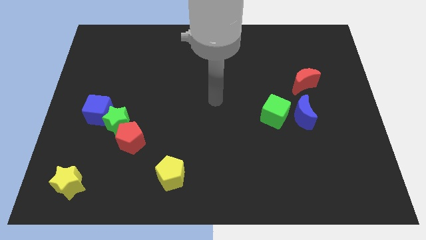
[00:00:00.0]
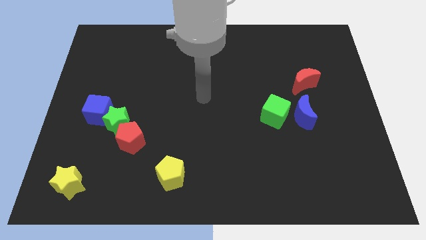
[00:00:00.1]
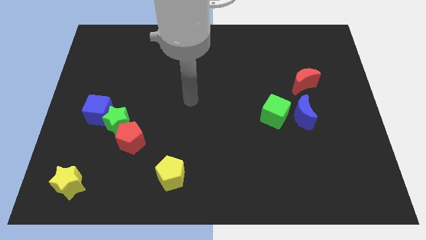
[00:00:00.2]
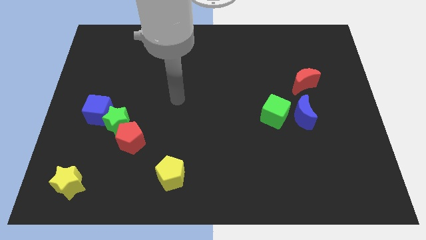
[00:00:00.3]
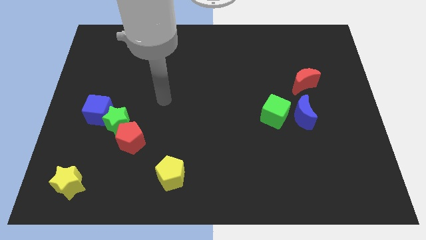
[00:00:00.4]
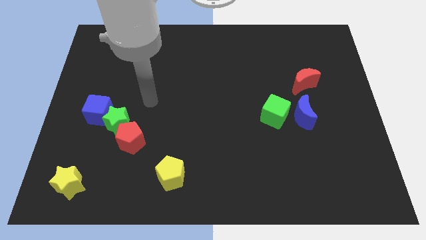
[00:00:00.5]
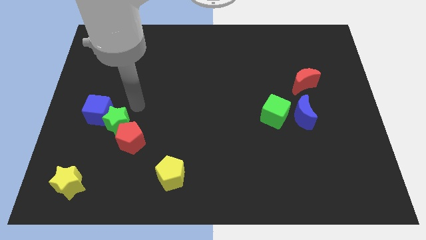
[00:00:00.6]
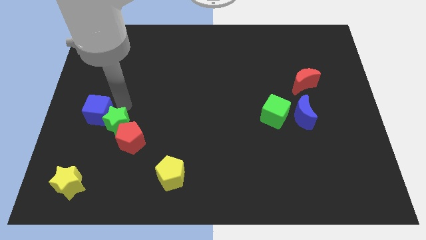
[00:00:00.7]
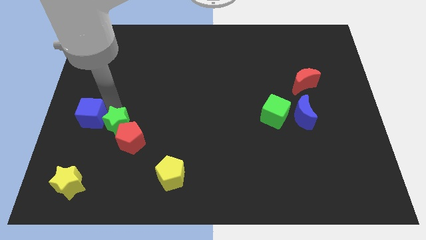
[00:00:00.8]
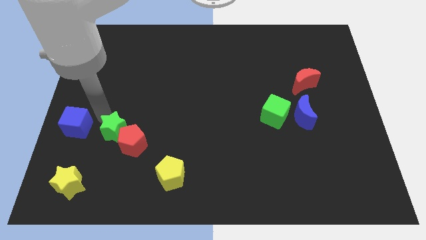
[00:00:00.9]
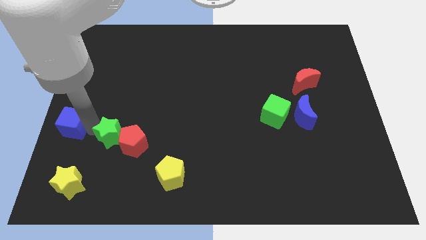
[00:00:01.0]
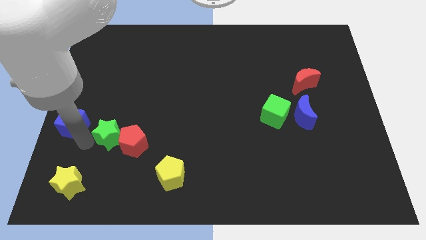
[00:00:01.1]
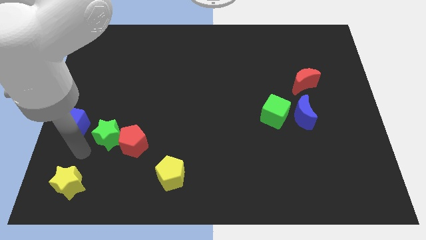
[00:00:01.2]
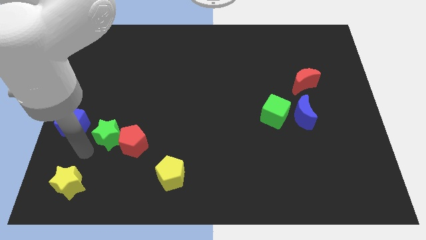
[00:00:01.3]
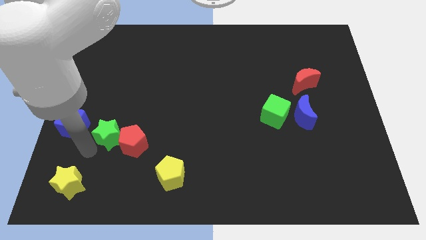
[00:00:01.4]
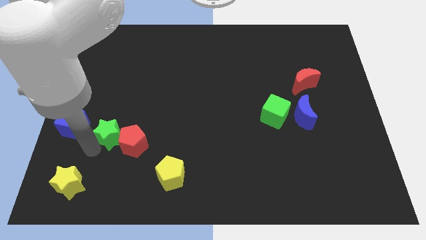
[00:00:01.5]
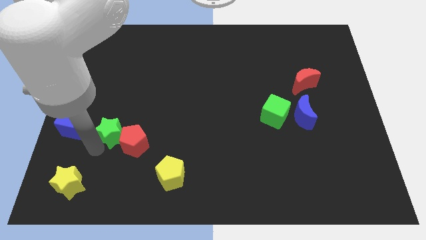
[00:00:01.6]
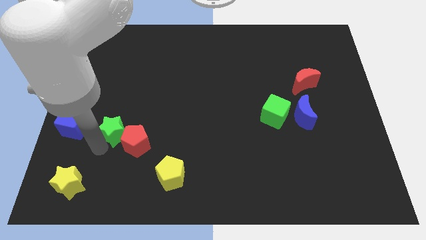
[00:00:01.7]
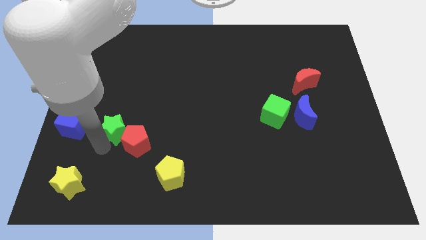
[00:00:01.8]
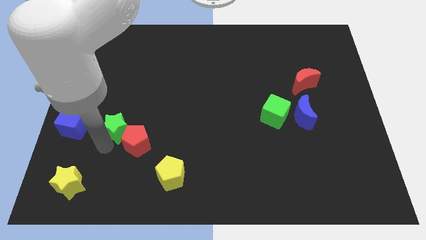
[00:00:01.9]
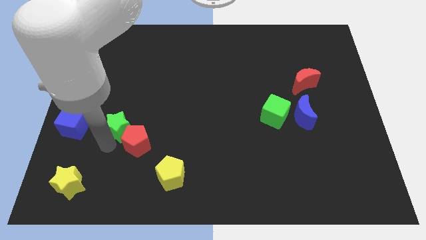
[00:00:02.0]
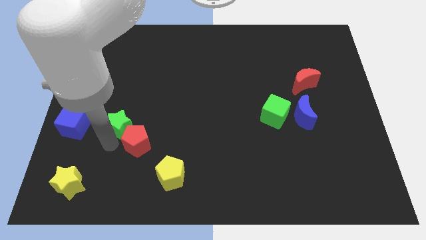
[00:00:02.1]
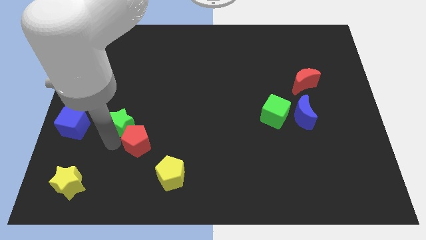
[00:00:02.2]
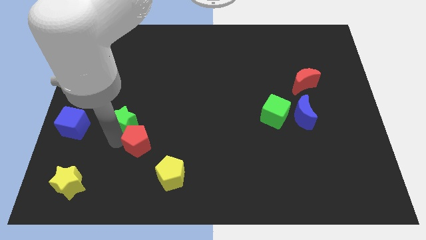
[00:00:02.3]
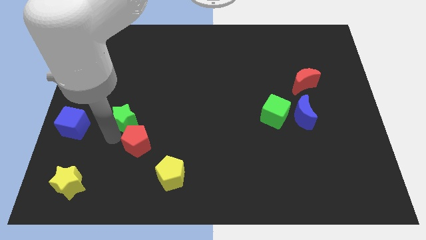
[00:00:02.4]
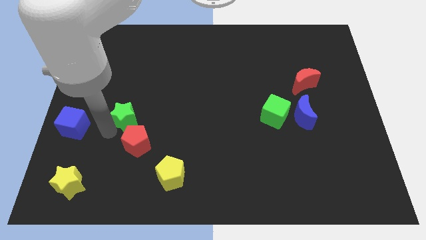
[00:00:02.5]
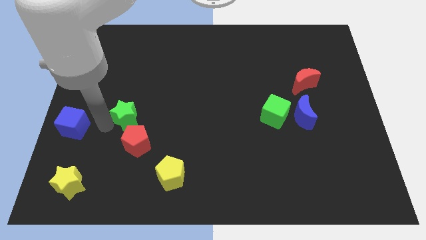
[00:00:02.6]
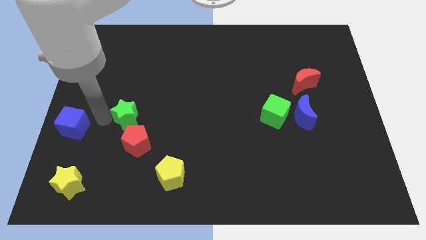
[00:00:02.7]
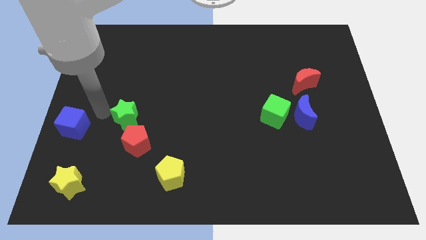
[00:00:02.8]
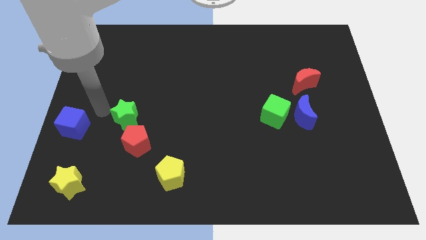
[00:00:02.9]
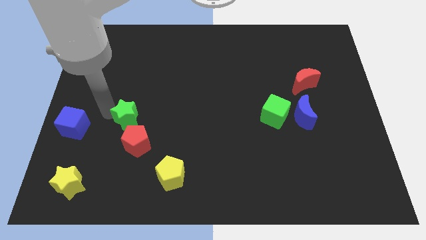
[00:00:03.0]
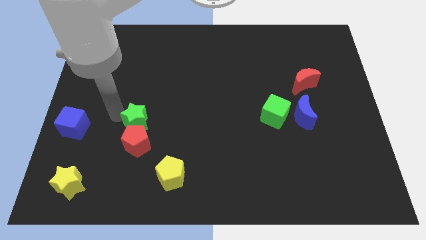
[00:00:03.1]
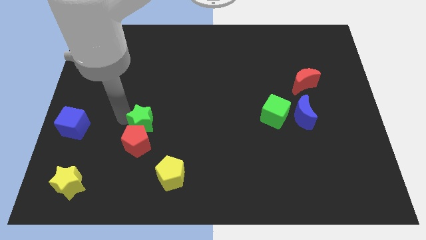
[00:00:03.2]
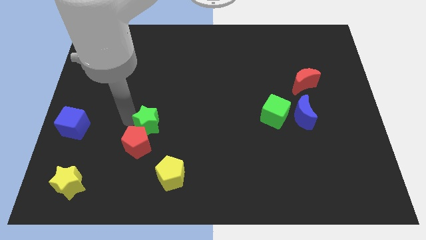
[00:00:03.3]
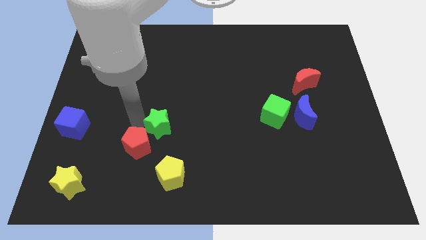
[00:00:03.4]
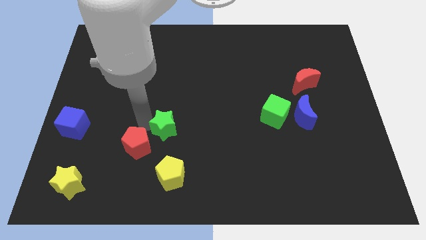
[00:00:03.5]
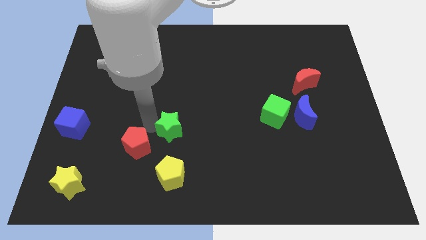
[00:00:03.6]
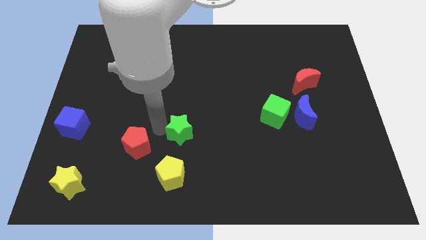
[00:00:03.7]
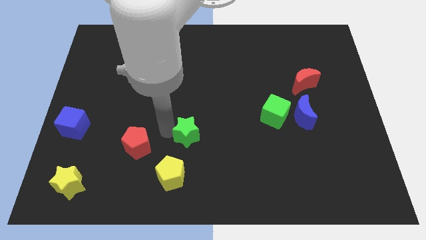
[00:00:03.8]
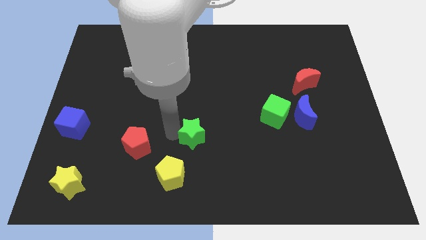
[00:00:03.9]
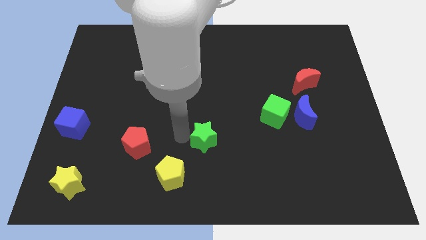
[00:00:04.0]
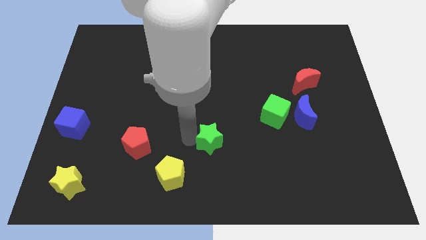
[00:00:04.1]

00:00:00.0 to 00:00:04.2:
move the green star right

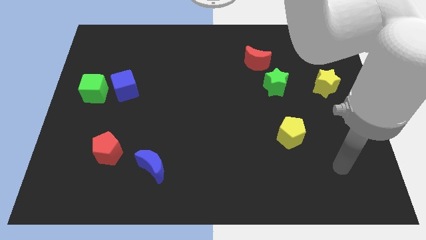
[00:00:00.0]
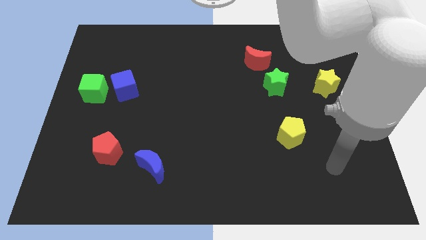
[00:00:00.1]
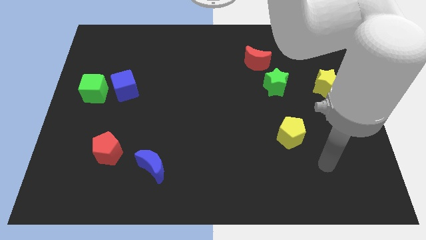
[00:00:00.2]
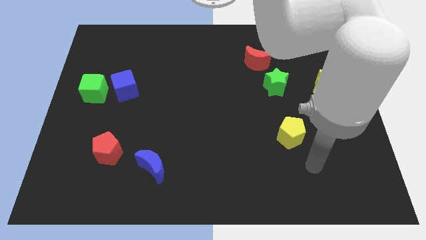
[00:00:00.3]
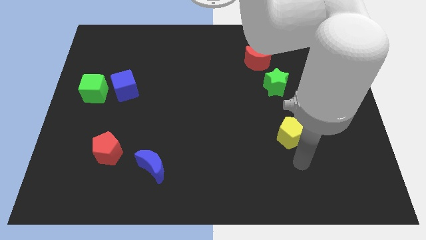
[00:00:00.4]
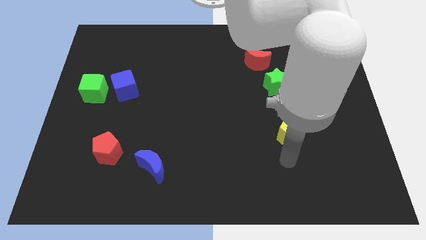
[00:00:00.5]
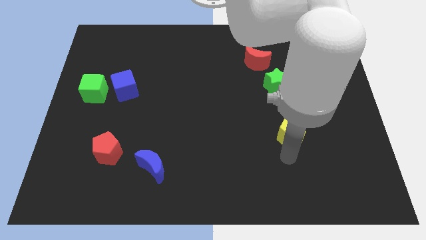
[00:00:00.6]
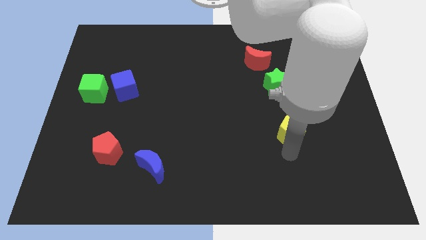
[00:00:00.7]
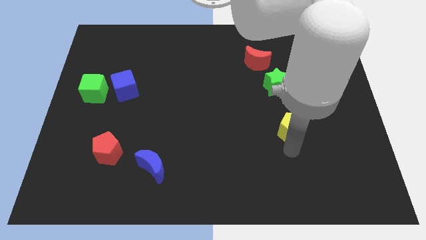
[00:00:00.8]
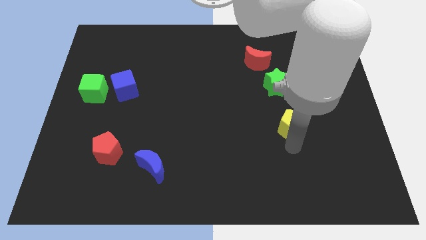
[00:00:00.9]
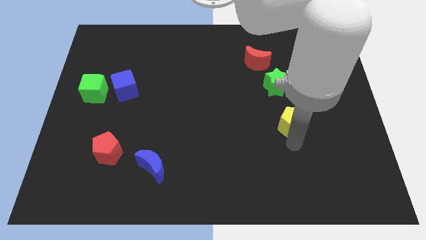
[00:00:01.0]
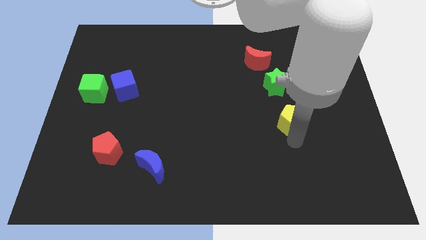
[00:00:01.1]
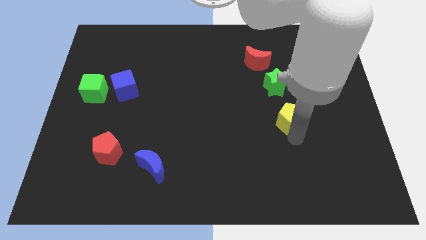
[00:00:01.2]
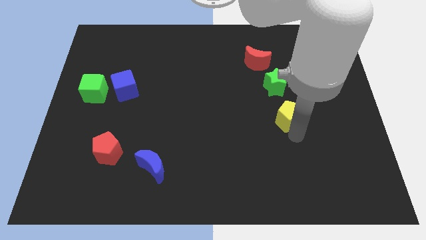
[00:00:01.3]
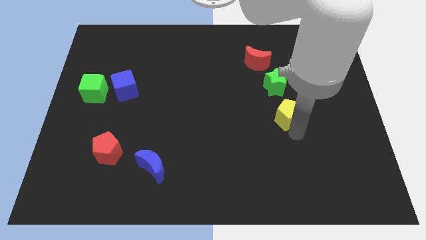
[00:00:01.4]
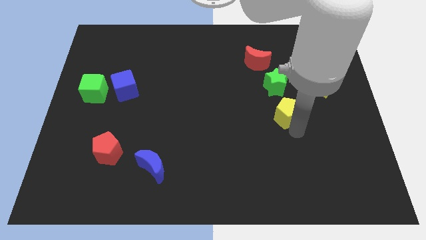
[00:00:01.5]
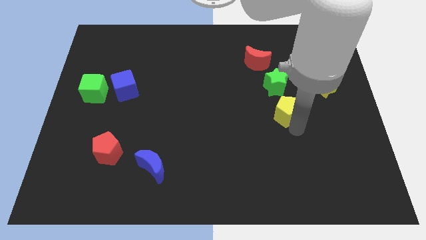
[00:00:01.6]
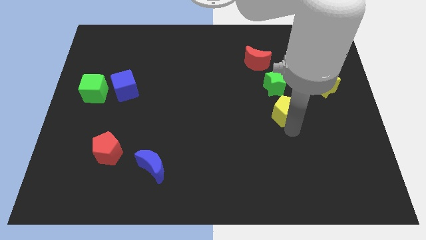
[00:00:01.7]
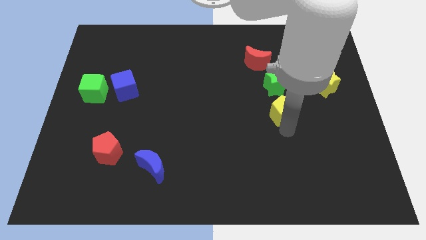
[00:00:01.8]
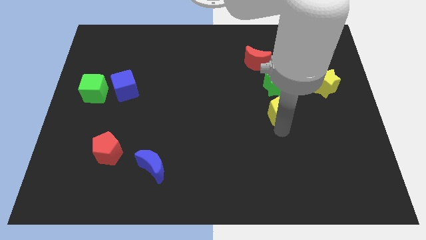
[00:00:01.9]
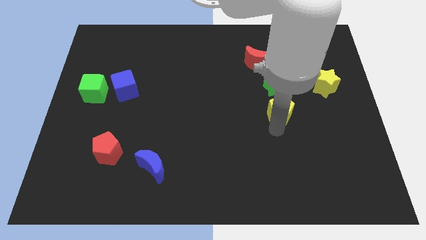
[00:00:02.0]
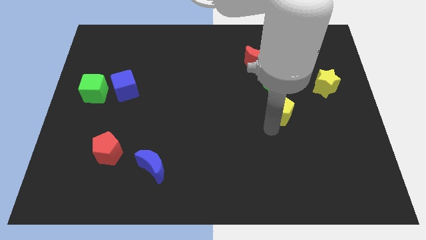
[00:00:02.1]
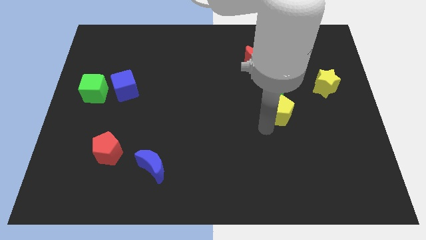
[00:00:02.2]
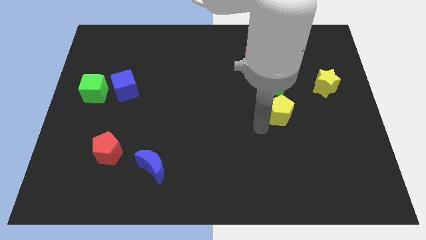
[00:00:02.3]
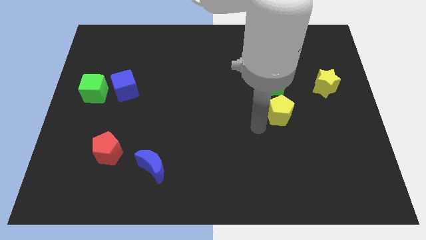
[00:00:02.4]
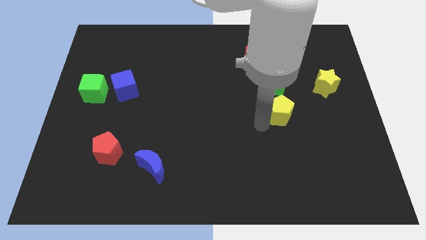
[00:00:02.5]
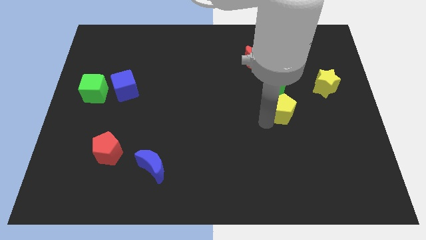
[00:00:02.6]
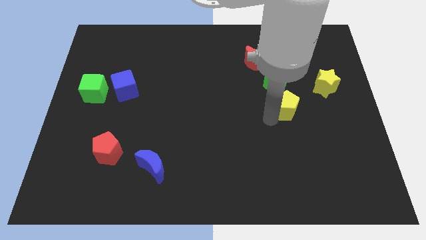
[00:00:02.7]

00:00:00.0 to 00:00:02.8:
push the yellow pentagon up somewhat

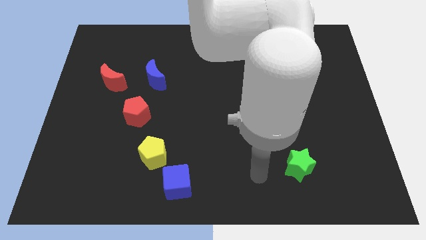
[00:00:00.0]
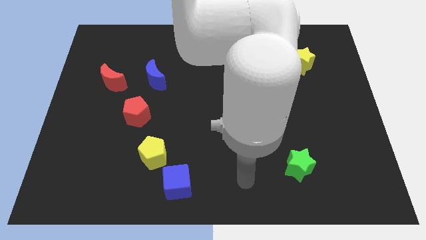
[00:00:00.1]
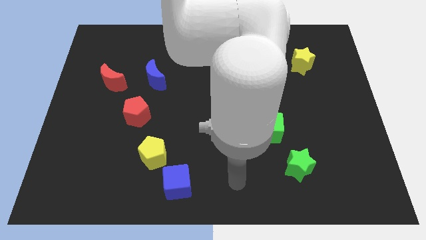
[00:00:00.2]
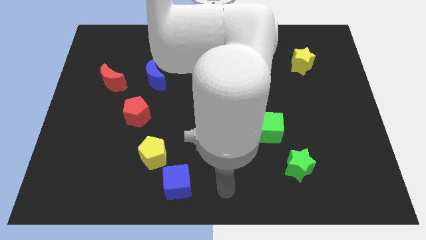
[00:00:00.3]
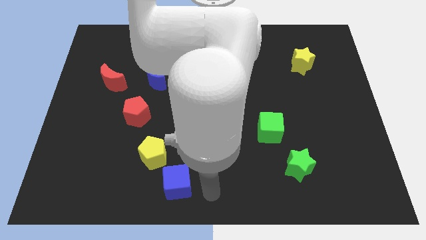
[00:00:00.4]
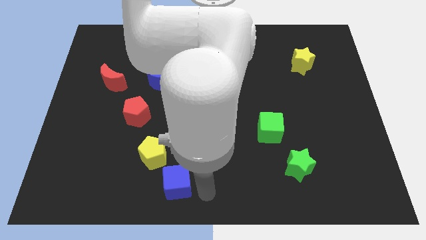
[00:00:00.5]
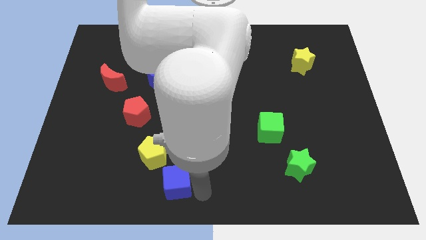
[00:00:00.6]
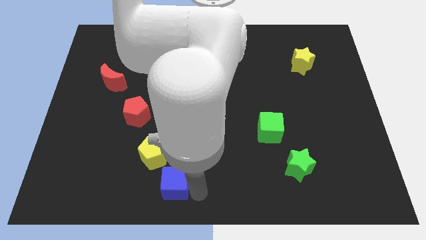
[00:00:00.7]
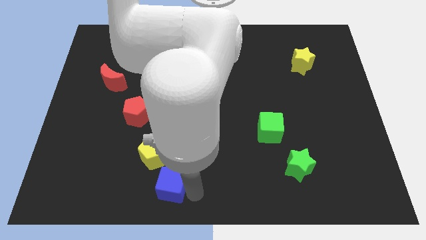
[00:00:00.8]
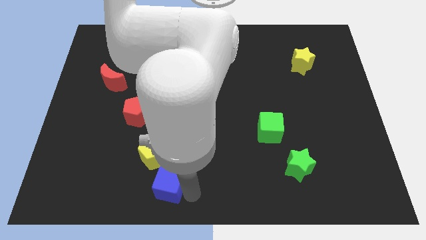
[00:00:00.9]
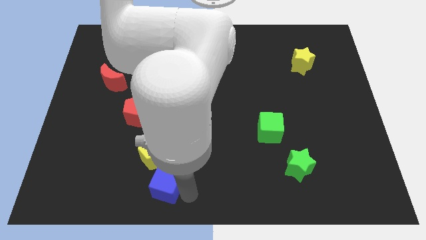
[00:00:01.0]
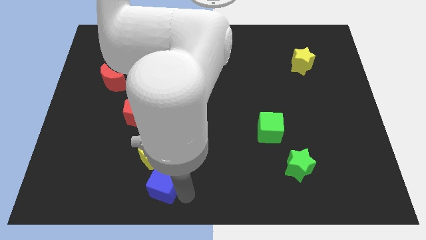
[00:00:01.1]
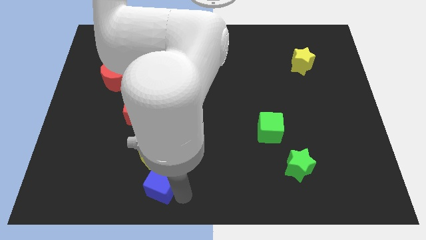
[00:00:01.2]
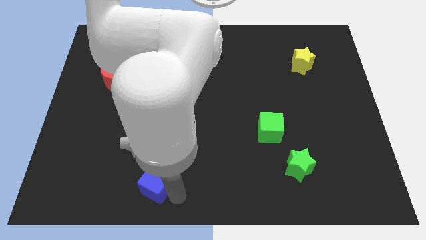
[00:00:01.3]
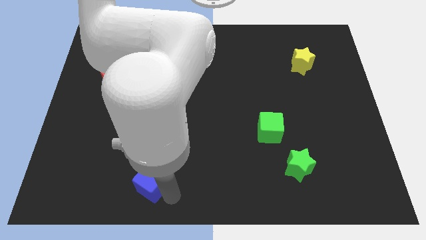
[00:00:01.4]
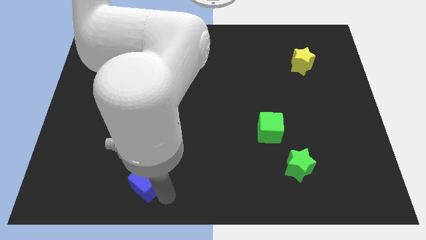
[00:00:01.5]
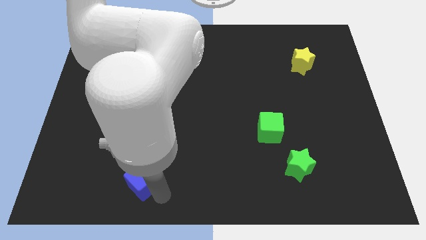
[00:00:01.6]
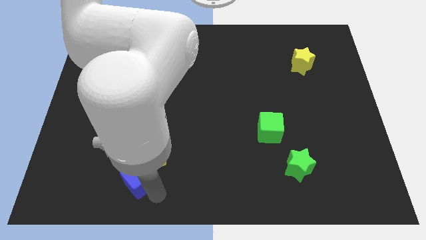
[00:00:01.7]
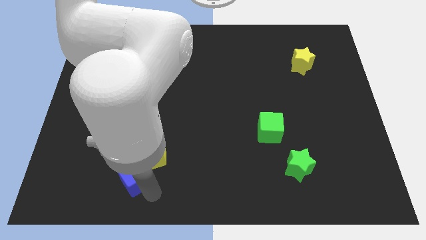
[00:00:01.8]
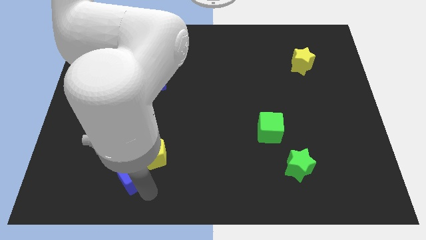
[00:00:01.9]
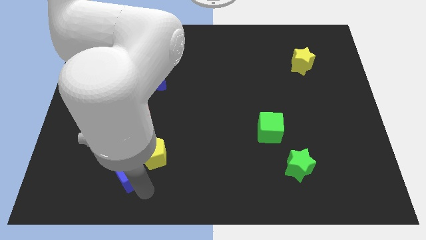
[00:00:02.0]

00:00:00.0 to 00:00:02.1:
move the blue cube upwards and left diagonally somewhat
